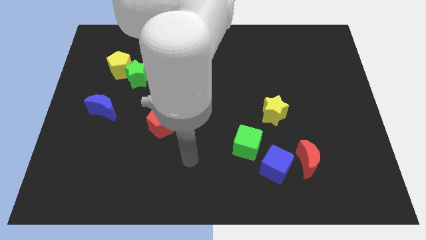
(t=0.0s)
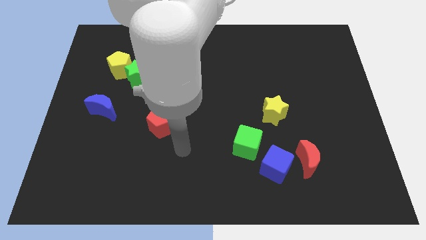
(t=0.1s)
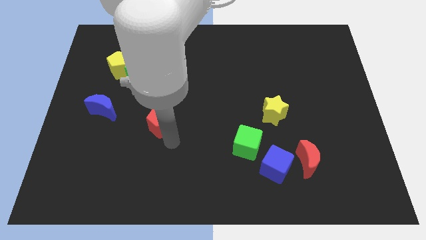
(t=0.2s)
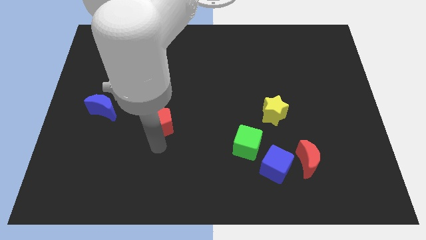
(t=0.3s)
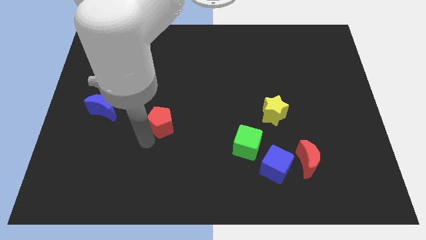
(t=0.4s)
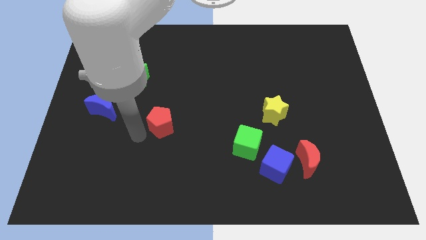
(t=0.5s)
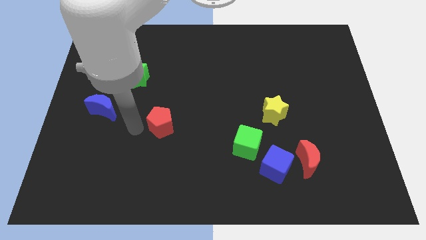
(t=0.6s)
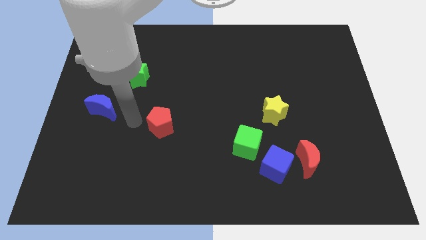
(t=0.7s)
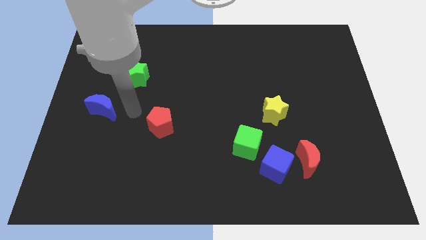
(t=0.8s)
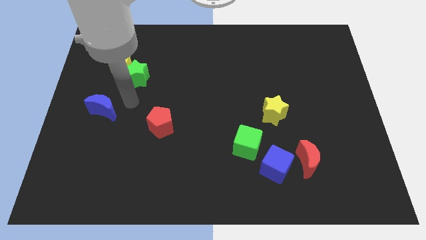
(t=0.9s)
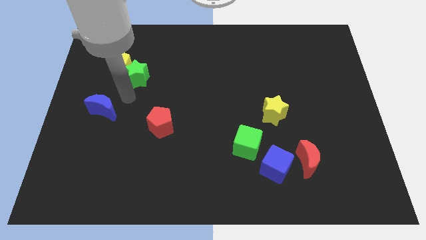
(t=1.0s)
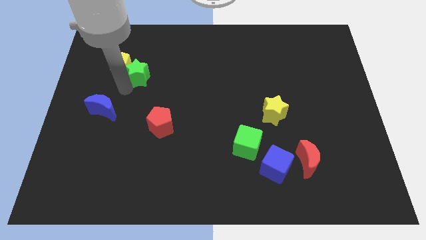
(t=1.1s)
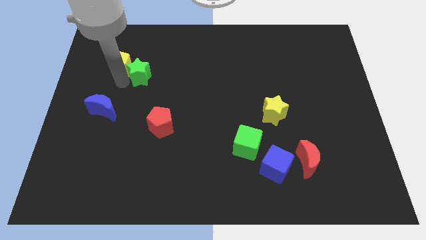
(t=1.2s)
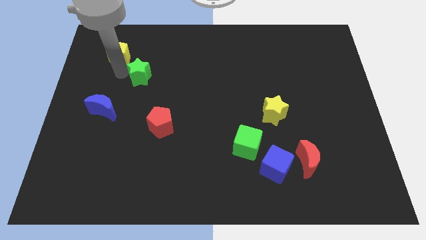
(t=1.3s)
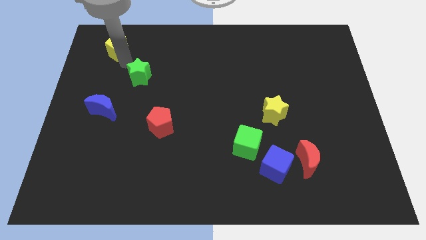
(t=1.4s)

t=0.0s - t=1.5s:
move the green star away from the yellow pentagon

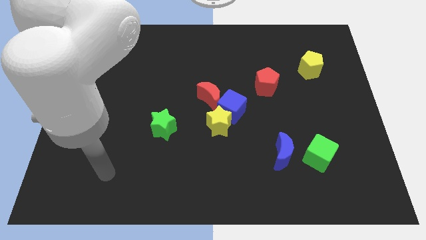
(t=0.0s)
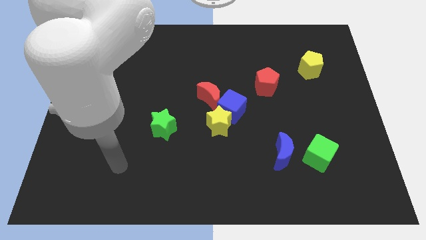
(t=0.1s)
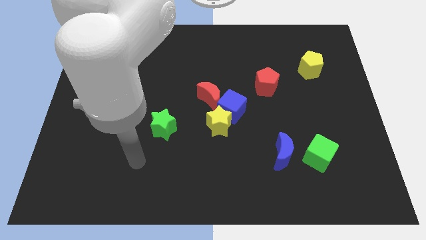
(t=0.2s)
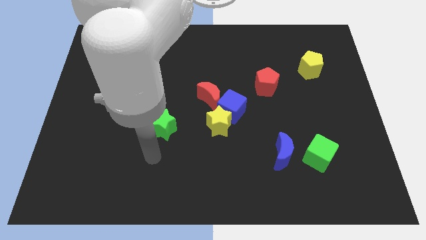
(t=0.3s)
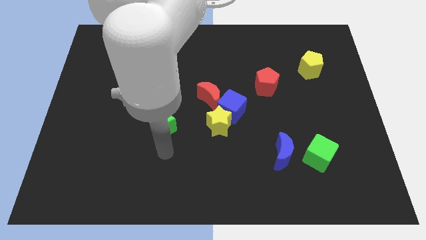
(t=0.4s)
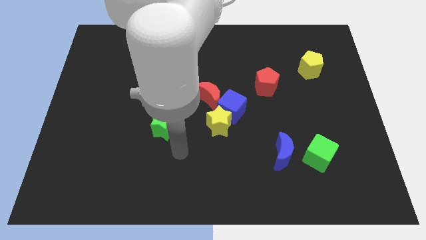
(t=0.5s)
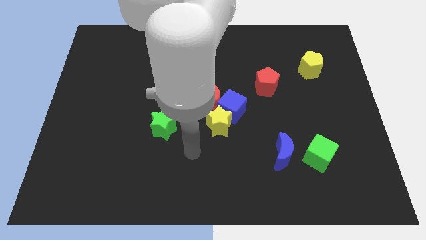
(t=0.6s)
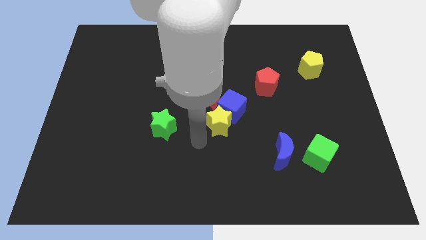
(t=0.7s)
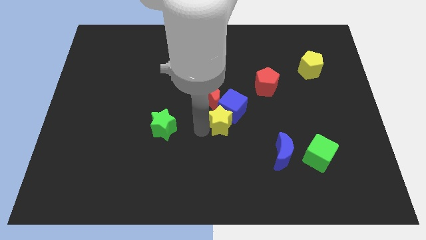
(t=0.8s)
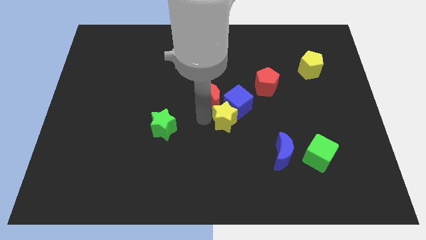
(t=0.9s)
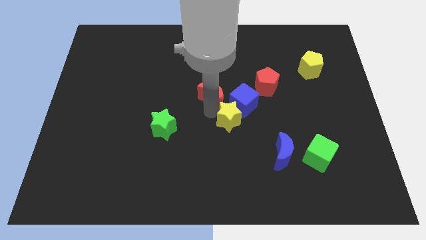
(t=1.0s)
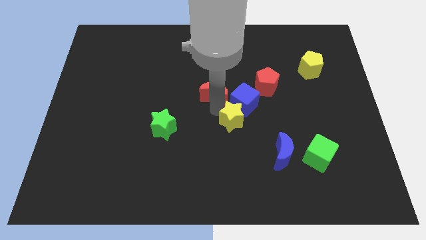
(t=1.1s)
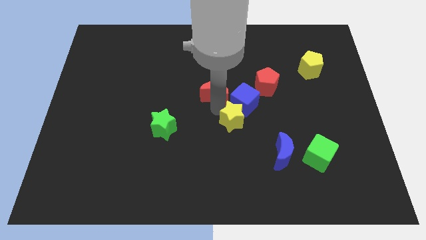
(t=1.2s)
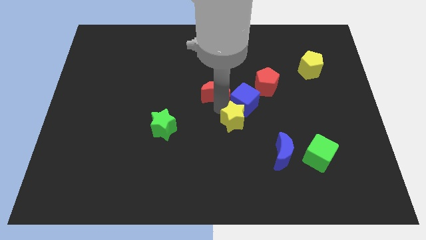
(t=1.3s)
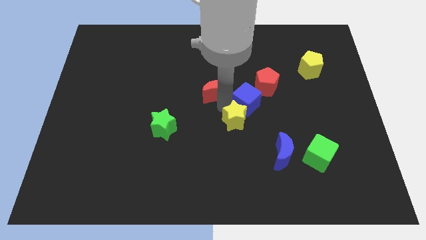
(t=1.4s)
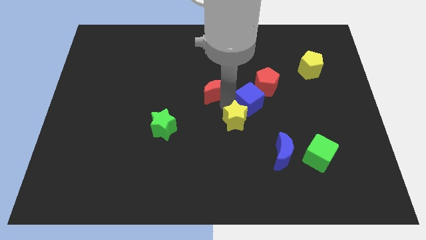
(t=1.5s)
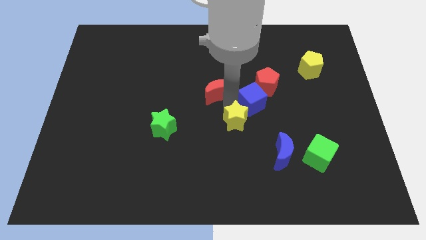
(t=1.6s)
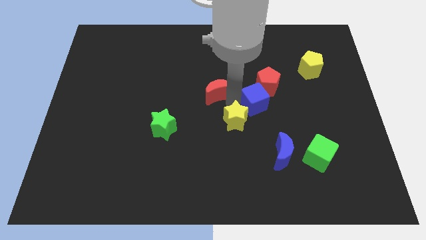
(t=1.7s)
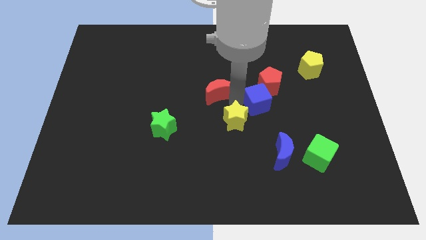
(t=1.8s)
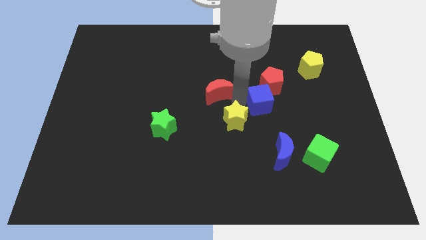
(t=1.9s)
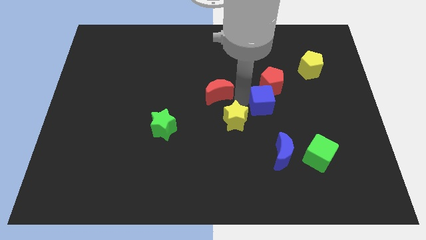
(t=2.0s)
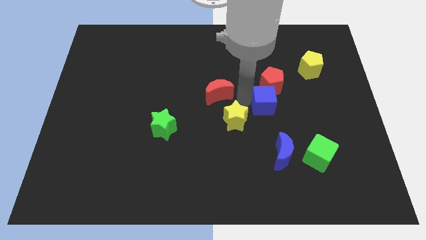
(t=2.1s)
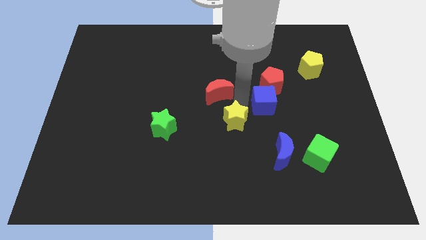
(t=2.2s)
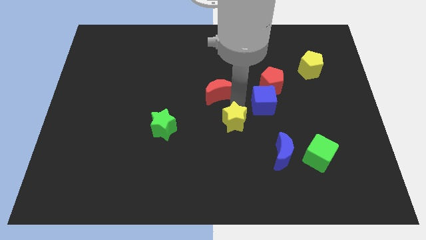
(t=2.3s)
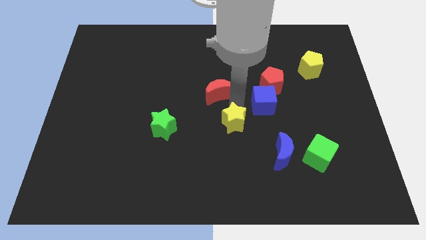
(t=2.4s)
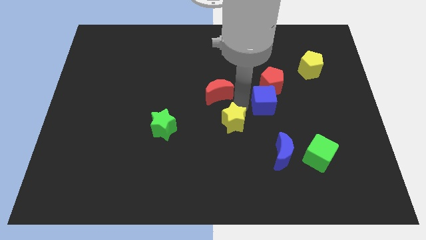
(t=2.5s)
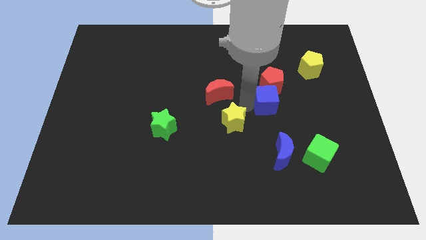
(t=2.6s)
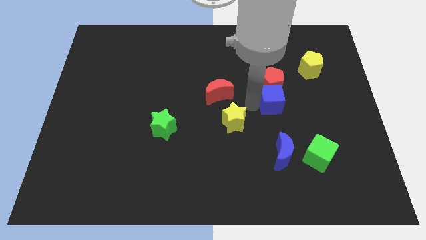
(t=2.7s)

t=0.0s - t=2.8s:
pull the blue cube apart from the yellow star and red moon

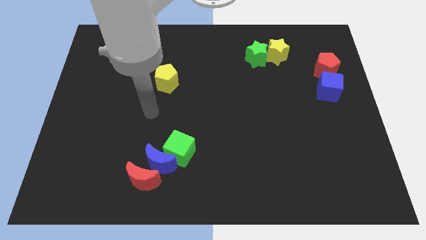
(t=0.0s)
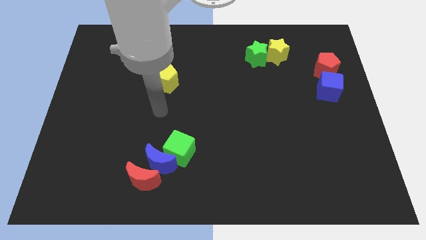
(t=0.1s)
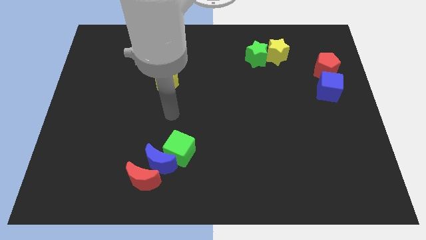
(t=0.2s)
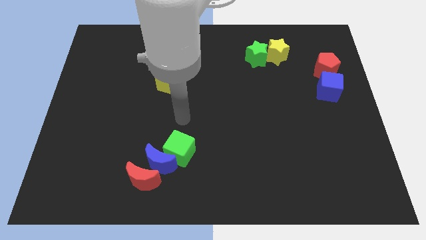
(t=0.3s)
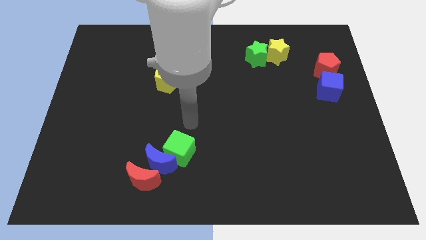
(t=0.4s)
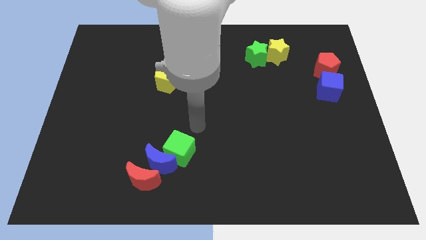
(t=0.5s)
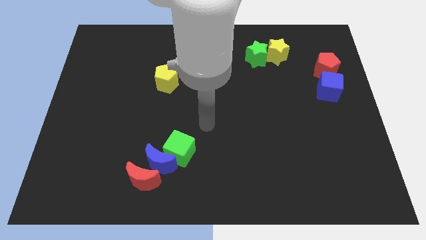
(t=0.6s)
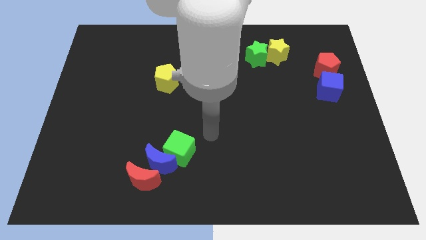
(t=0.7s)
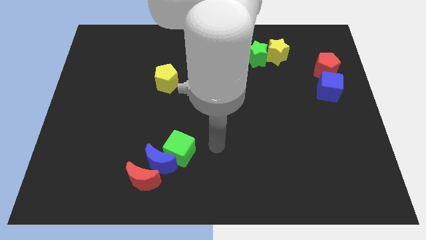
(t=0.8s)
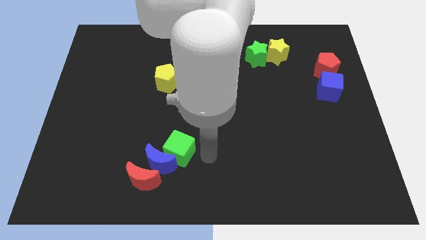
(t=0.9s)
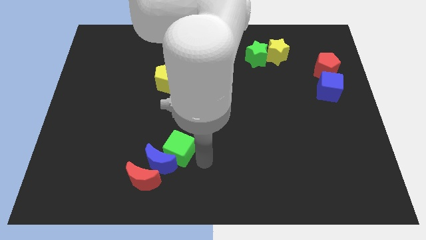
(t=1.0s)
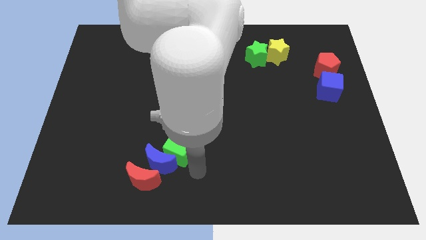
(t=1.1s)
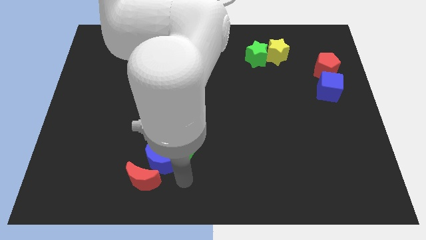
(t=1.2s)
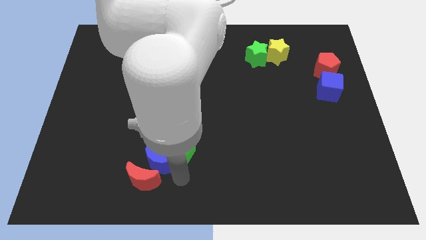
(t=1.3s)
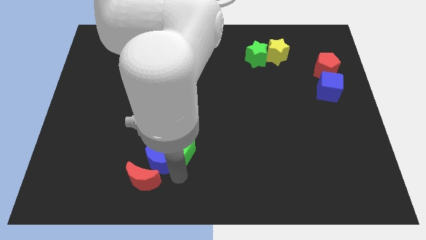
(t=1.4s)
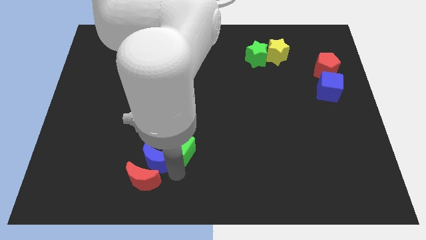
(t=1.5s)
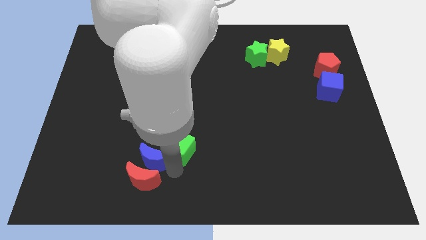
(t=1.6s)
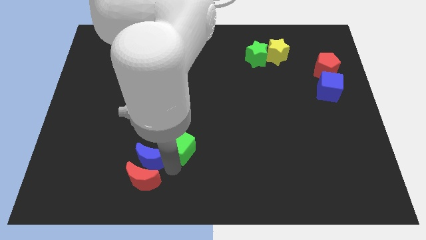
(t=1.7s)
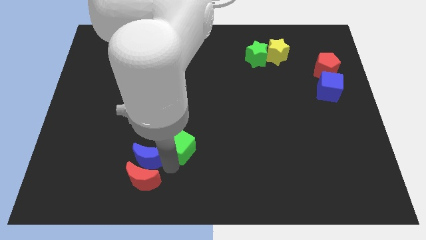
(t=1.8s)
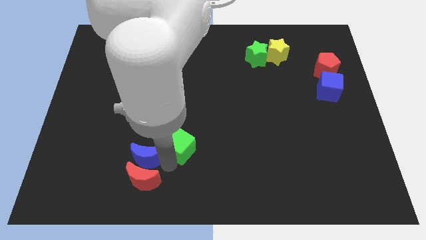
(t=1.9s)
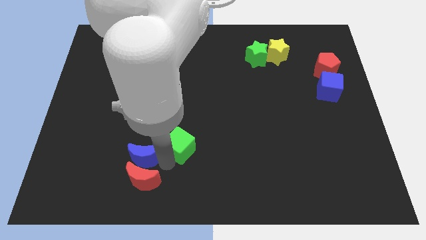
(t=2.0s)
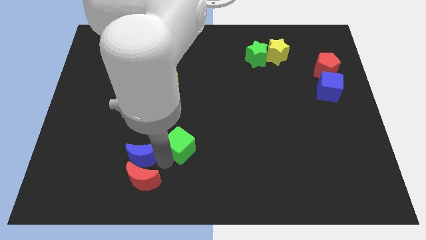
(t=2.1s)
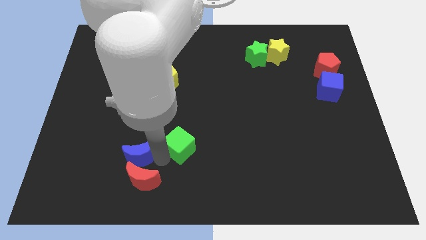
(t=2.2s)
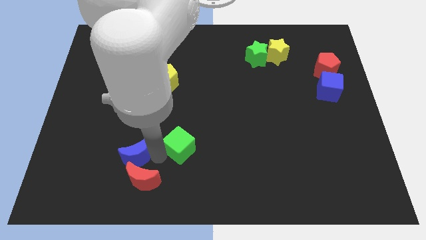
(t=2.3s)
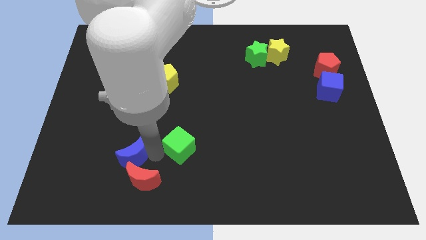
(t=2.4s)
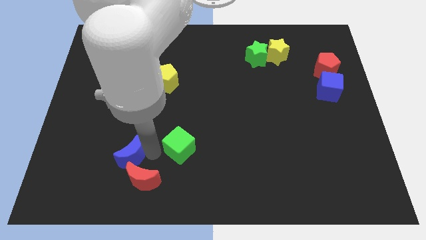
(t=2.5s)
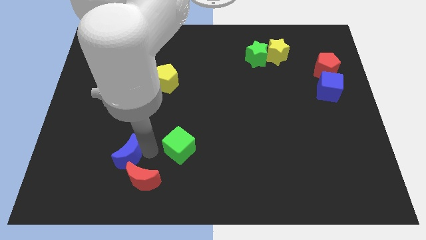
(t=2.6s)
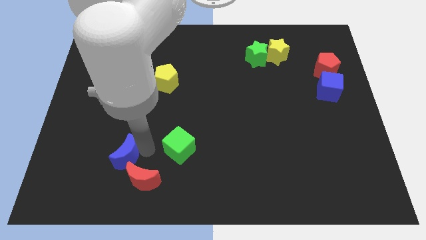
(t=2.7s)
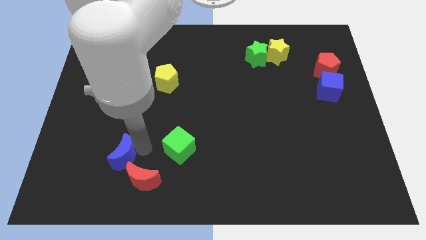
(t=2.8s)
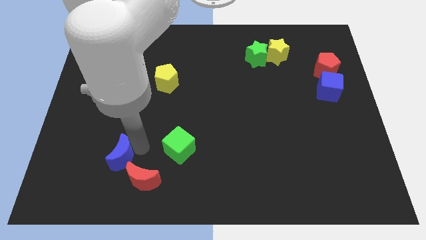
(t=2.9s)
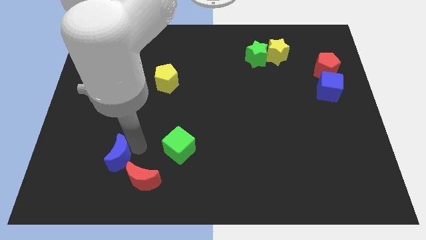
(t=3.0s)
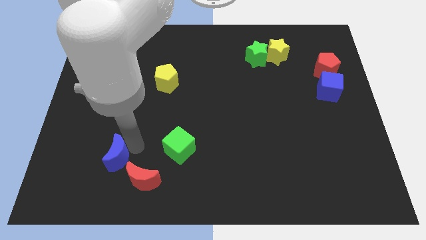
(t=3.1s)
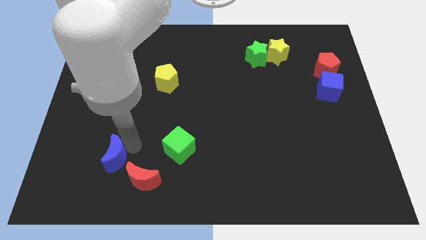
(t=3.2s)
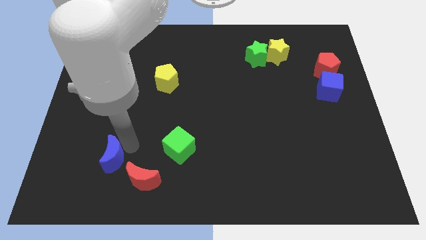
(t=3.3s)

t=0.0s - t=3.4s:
move the blue moon away from the red moon and green cube

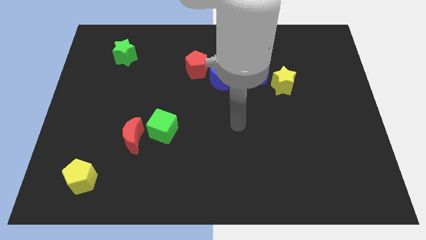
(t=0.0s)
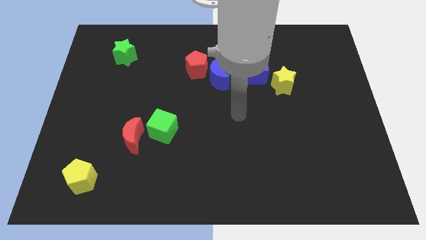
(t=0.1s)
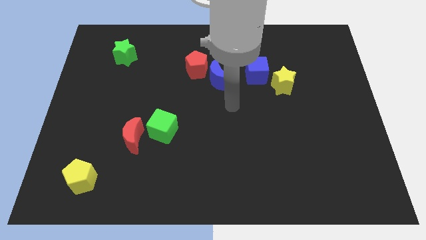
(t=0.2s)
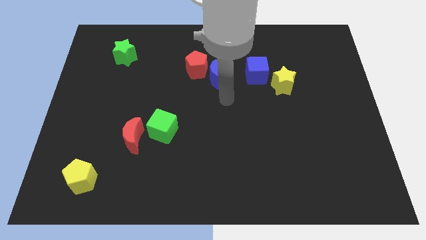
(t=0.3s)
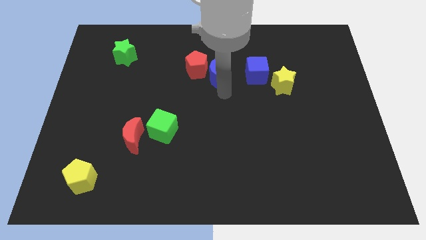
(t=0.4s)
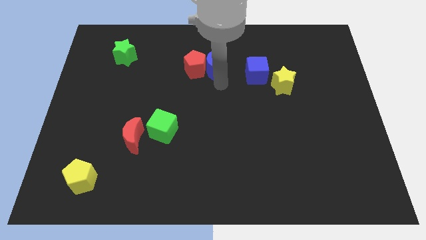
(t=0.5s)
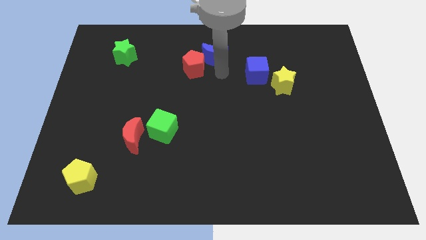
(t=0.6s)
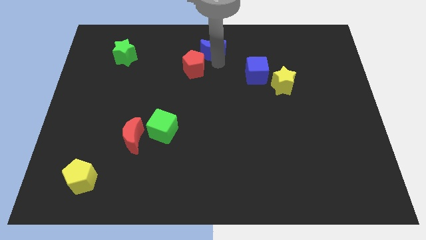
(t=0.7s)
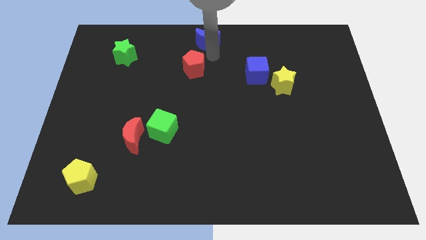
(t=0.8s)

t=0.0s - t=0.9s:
pull the red pentagon apart from the blue moon

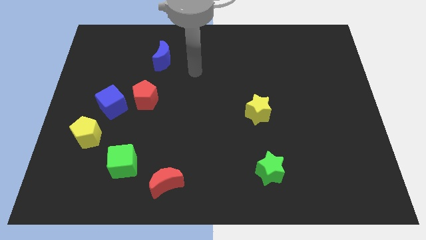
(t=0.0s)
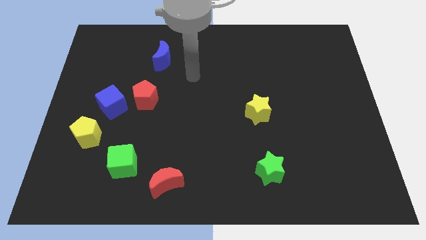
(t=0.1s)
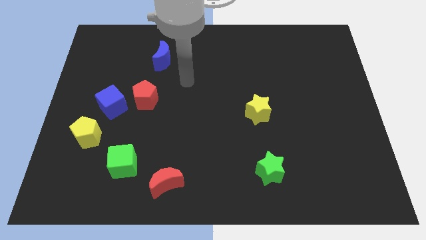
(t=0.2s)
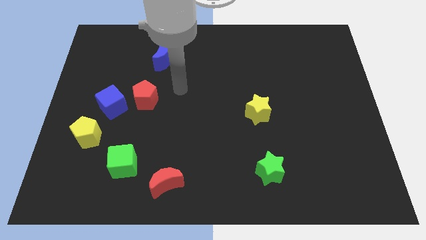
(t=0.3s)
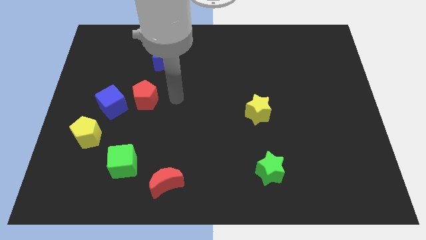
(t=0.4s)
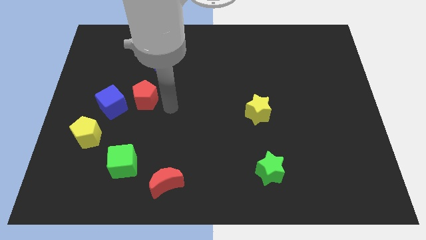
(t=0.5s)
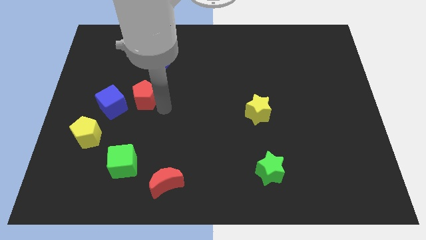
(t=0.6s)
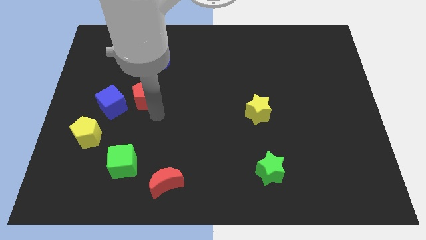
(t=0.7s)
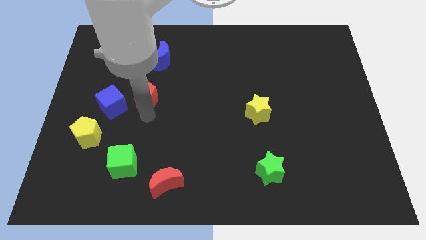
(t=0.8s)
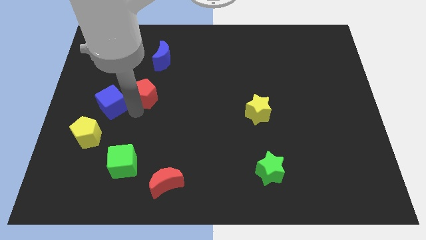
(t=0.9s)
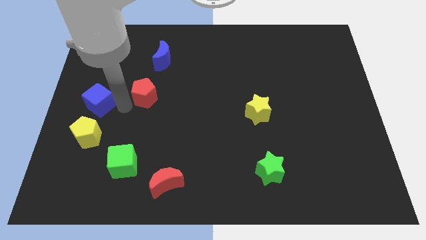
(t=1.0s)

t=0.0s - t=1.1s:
move the red pentagon away from the blue cube
